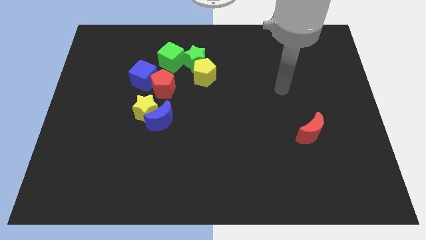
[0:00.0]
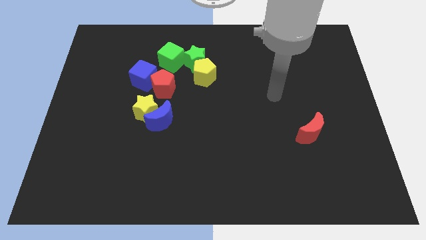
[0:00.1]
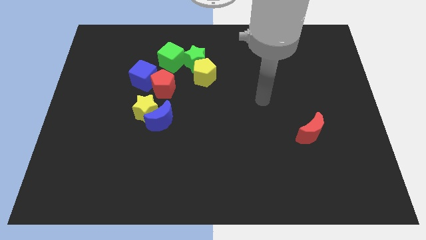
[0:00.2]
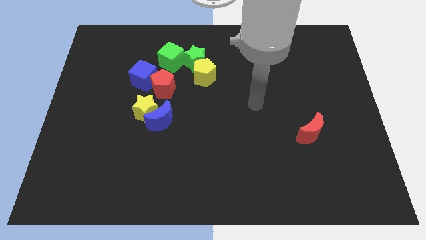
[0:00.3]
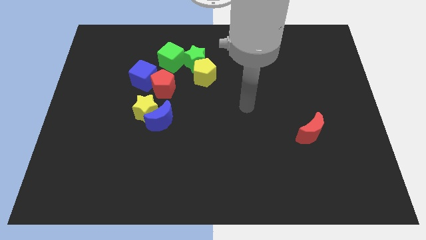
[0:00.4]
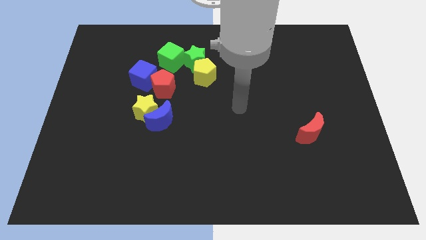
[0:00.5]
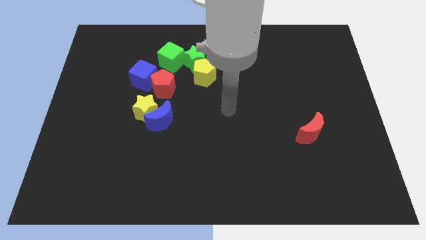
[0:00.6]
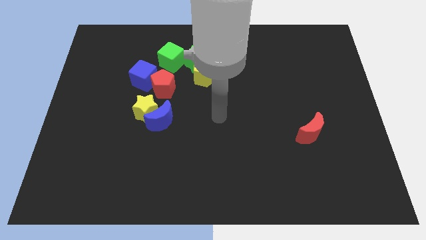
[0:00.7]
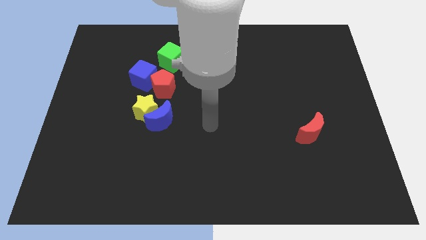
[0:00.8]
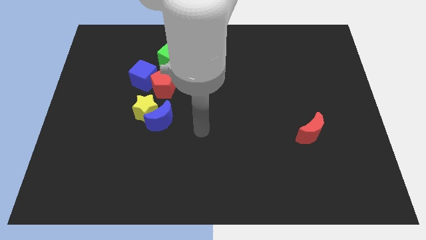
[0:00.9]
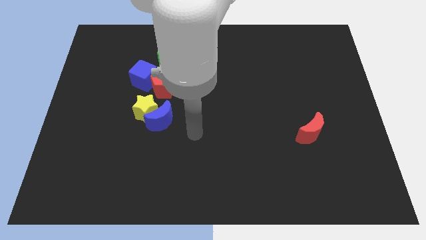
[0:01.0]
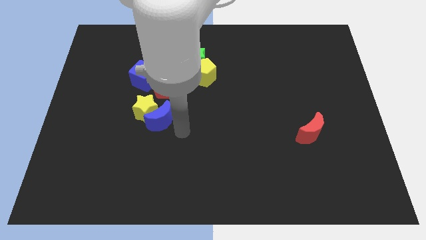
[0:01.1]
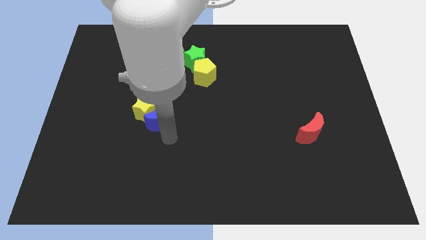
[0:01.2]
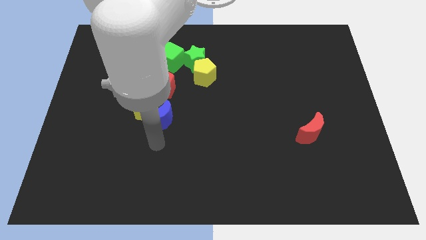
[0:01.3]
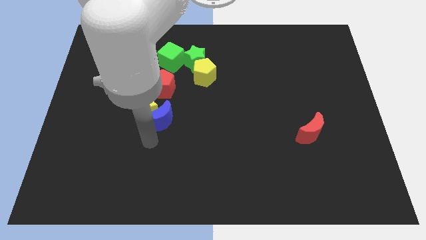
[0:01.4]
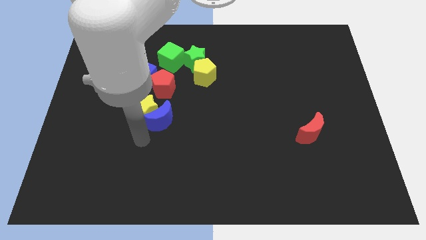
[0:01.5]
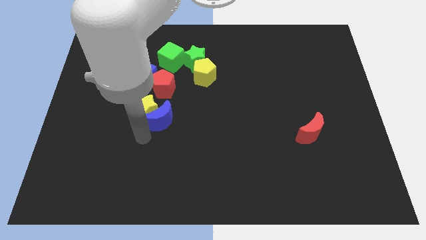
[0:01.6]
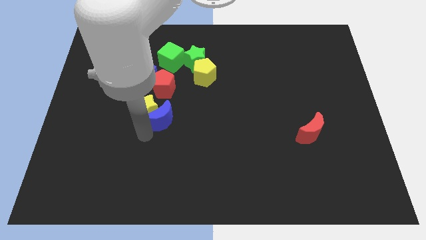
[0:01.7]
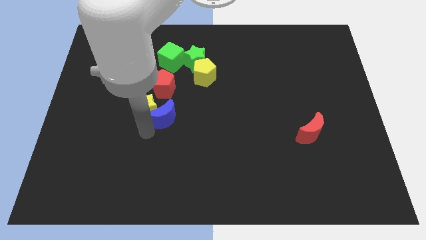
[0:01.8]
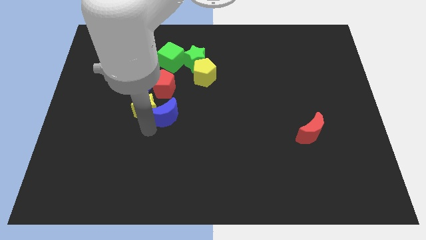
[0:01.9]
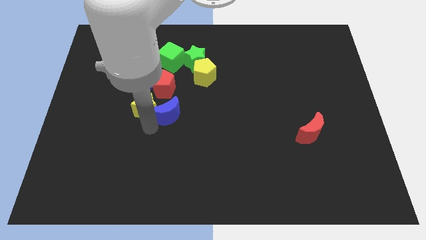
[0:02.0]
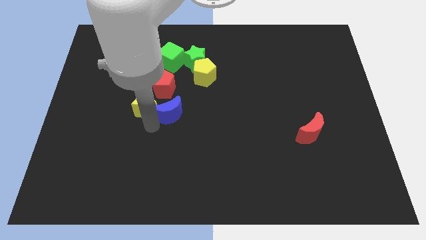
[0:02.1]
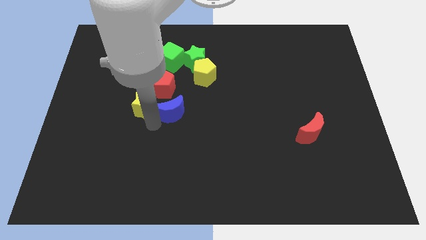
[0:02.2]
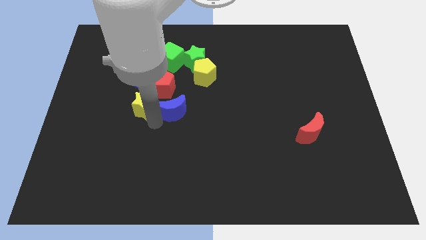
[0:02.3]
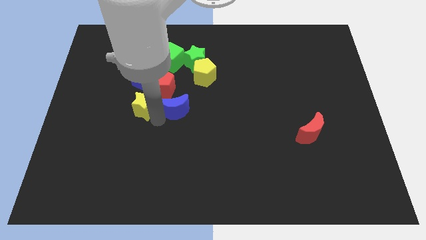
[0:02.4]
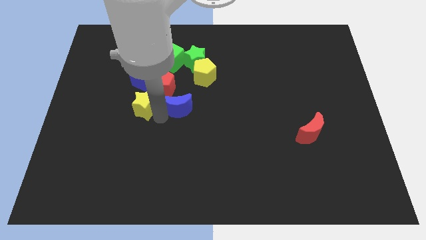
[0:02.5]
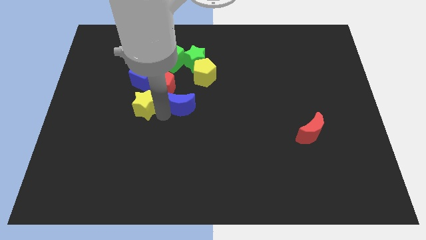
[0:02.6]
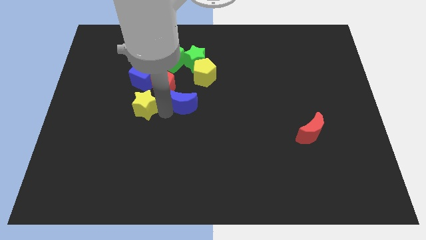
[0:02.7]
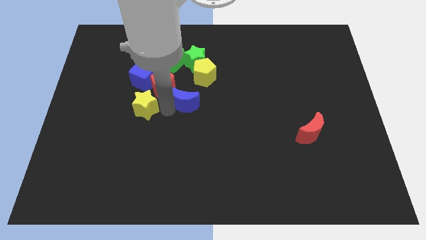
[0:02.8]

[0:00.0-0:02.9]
slide the blue moon somewhat diagonally upwards and to the right

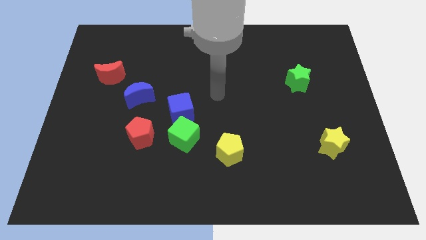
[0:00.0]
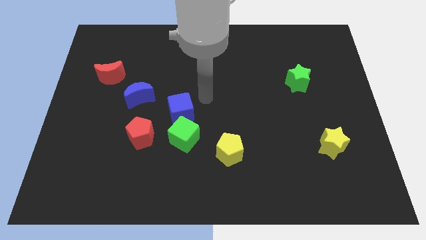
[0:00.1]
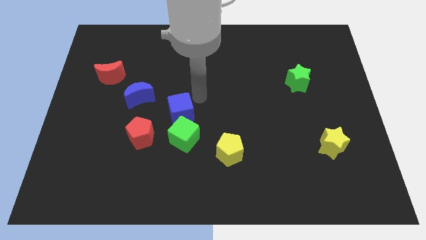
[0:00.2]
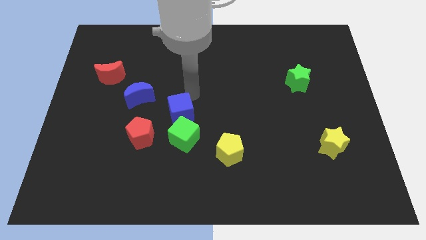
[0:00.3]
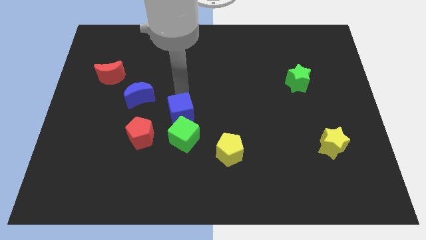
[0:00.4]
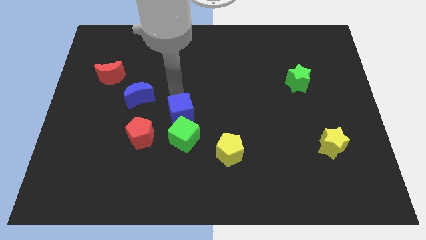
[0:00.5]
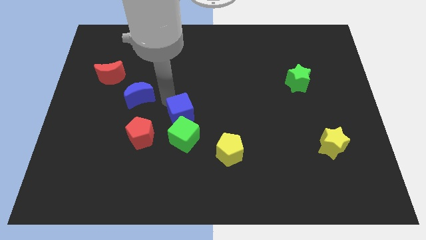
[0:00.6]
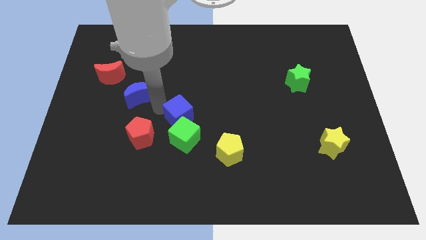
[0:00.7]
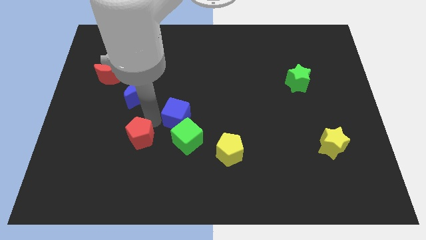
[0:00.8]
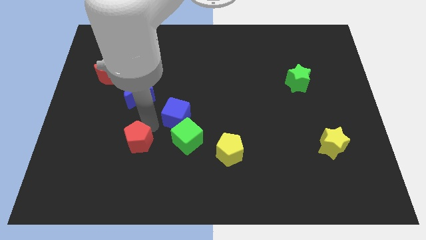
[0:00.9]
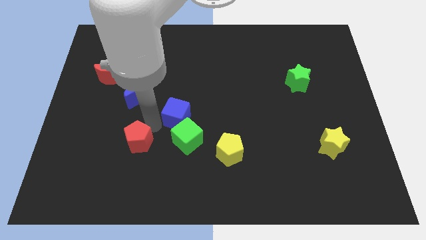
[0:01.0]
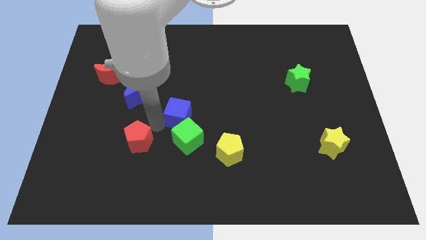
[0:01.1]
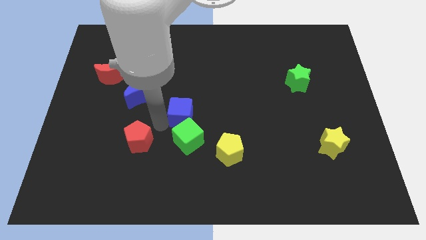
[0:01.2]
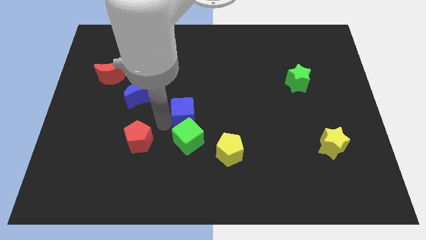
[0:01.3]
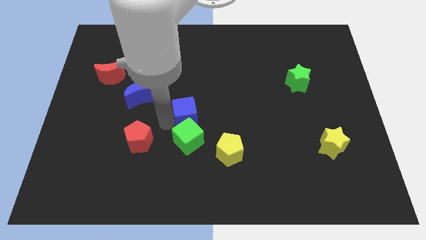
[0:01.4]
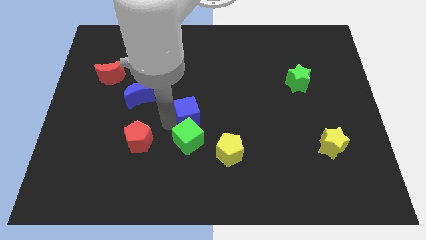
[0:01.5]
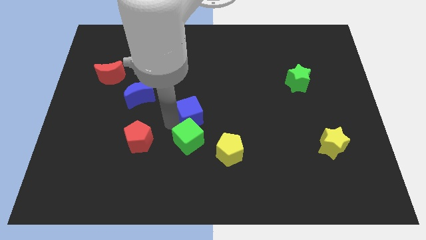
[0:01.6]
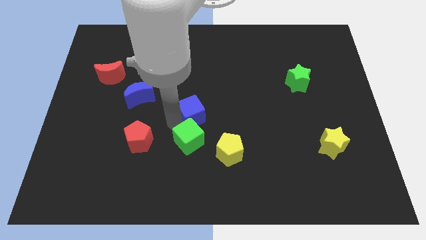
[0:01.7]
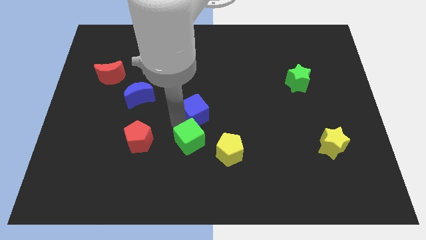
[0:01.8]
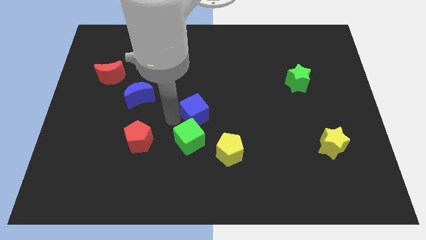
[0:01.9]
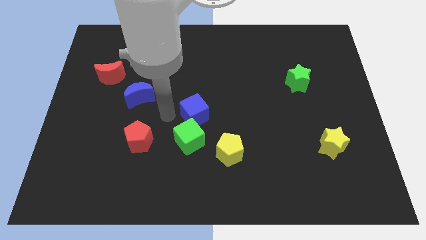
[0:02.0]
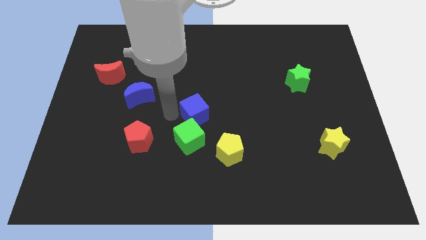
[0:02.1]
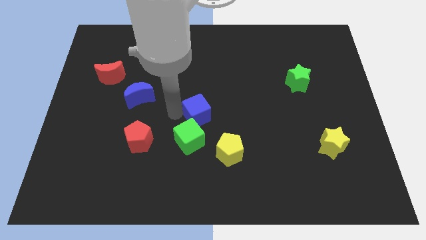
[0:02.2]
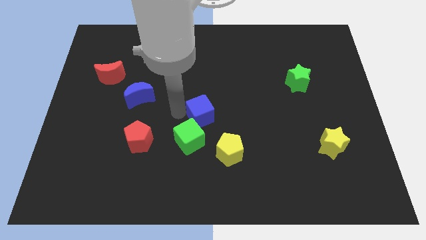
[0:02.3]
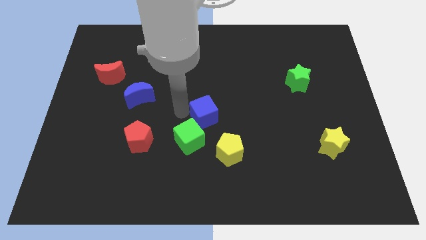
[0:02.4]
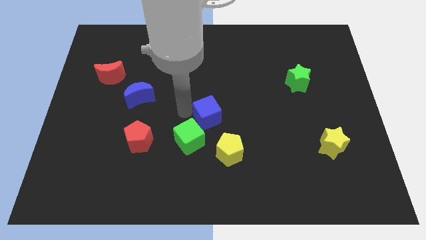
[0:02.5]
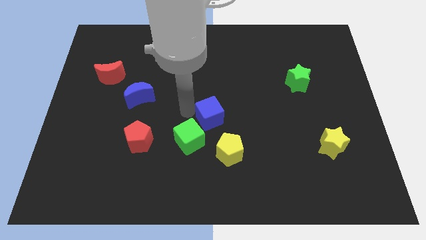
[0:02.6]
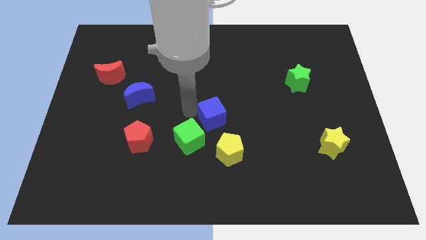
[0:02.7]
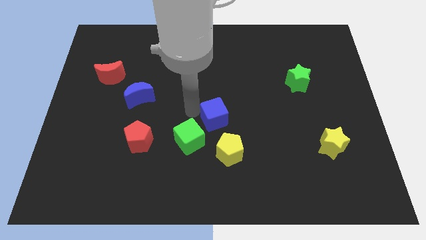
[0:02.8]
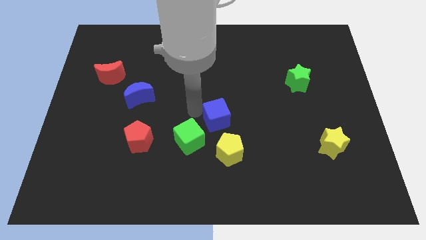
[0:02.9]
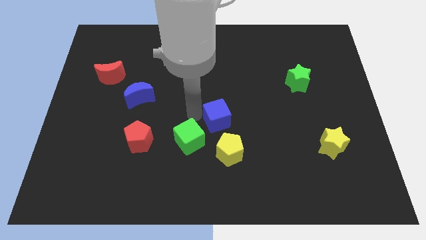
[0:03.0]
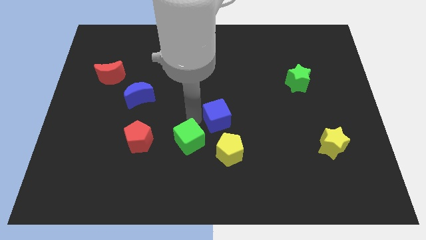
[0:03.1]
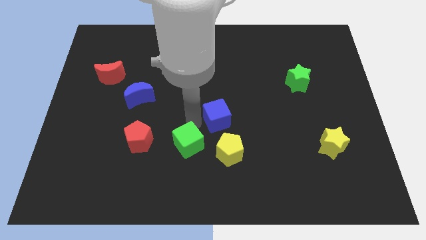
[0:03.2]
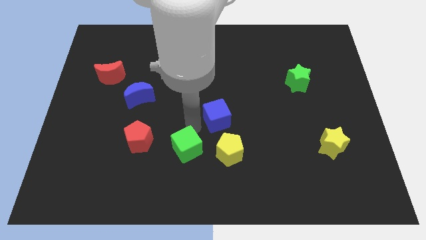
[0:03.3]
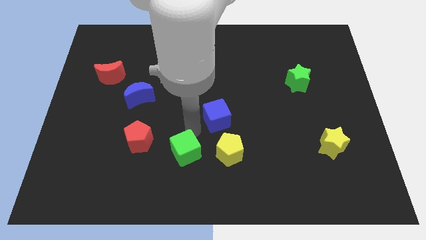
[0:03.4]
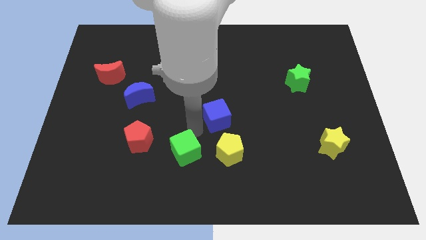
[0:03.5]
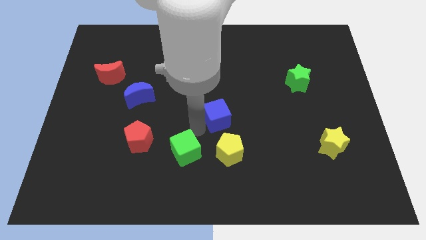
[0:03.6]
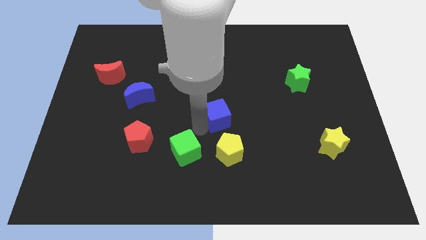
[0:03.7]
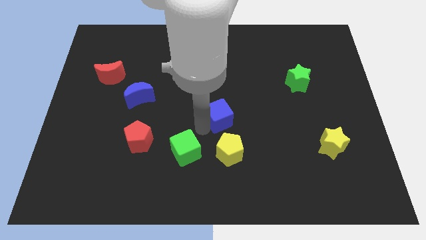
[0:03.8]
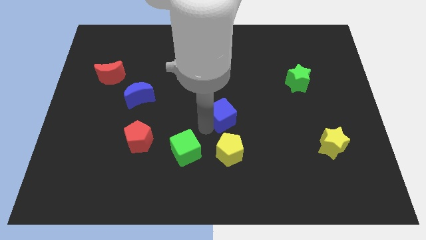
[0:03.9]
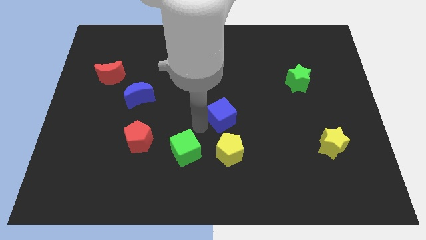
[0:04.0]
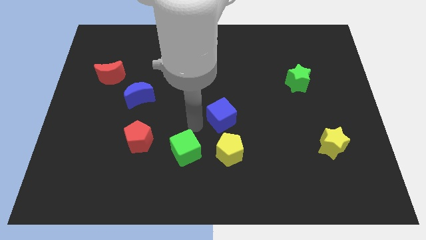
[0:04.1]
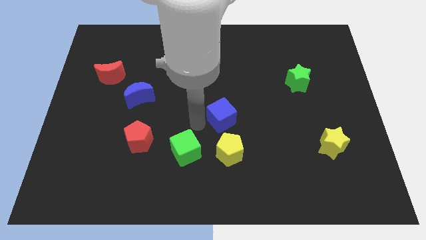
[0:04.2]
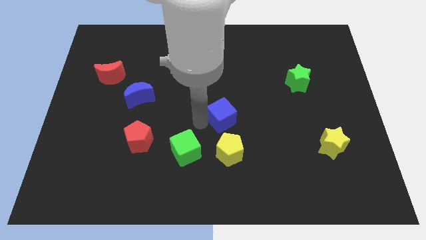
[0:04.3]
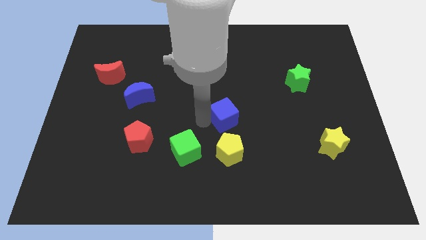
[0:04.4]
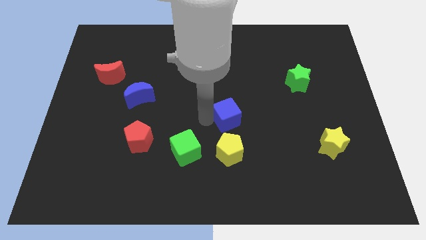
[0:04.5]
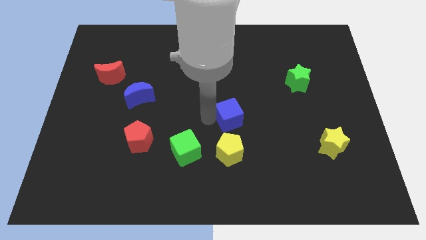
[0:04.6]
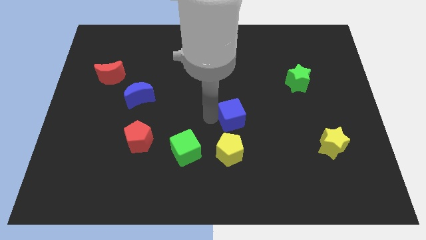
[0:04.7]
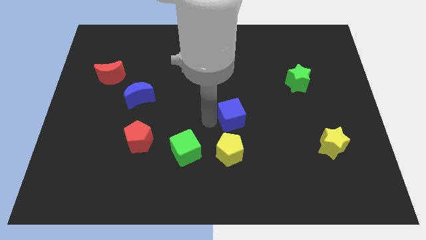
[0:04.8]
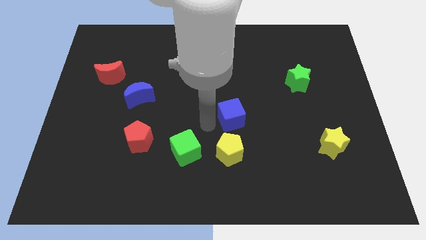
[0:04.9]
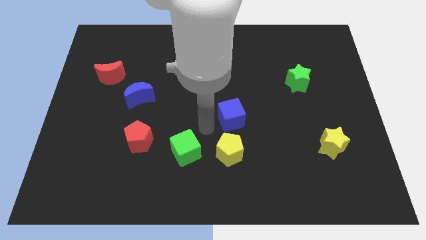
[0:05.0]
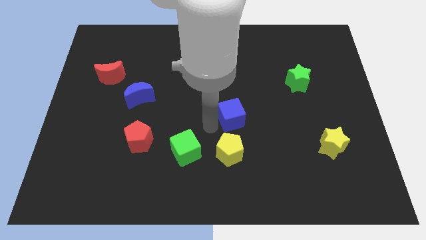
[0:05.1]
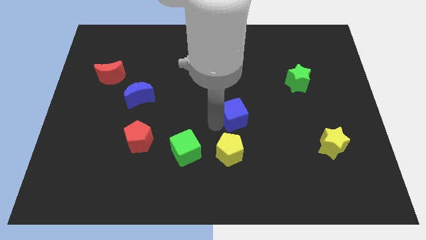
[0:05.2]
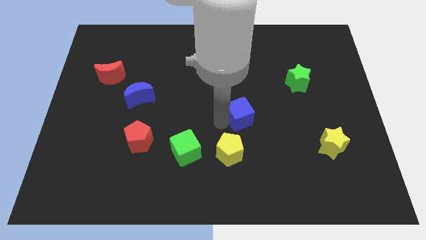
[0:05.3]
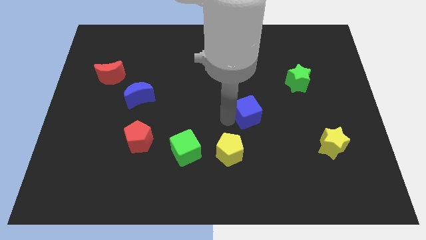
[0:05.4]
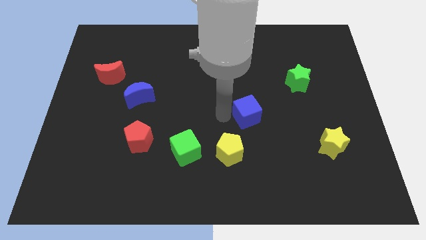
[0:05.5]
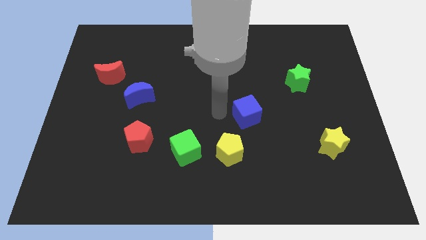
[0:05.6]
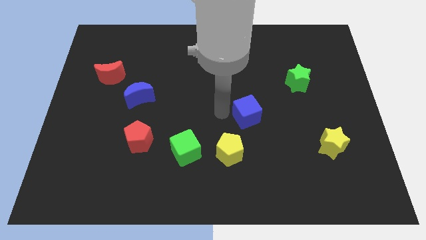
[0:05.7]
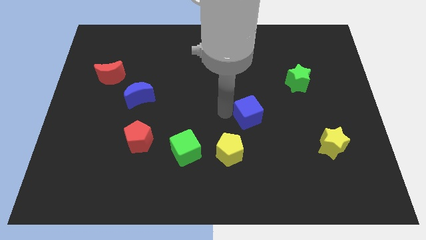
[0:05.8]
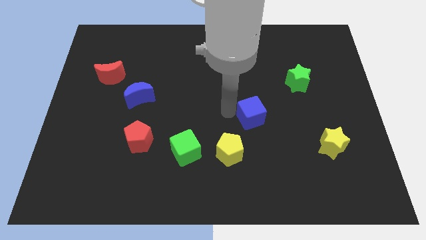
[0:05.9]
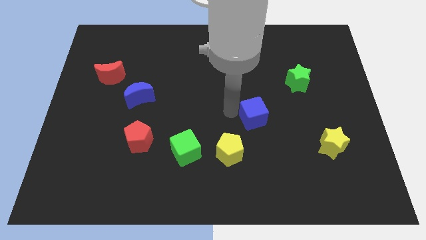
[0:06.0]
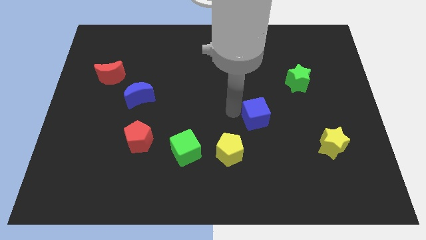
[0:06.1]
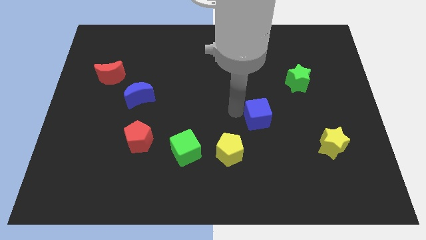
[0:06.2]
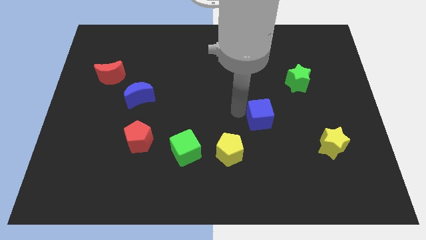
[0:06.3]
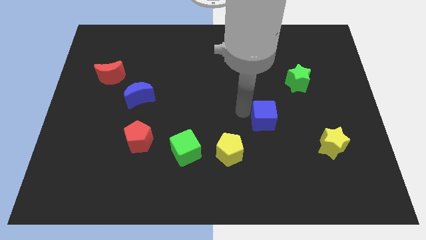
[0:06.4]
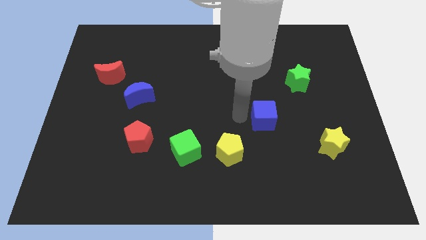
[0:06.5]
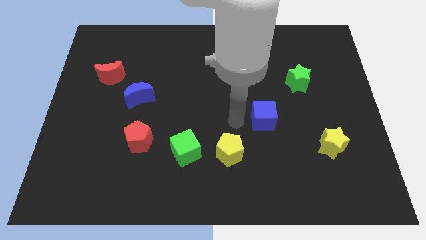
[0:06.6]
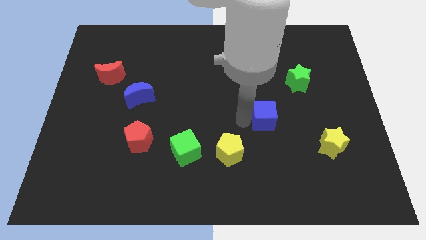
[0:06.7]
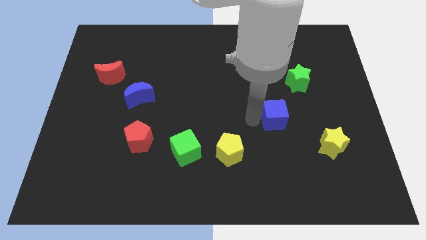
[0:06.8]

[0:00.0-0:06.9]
push the blue cube to the right
